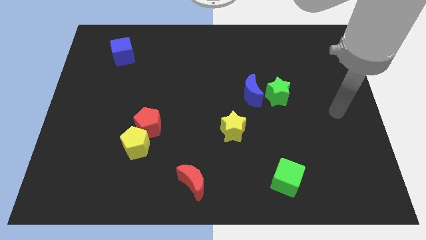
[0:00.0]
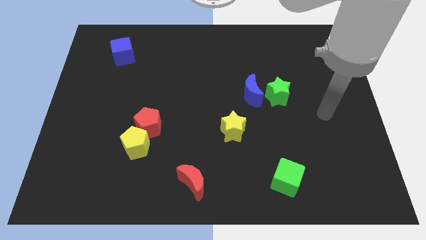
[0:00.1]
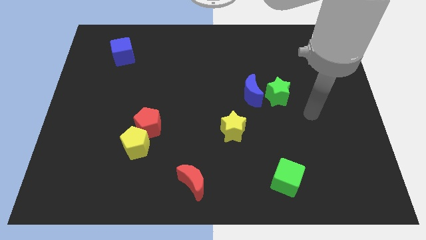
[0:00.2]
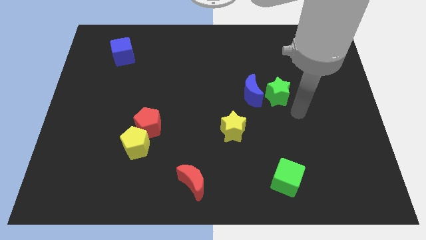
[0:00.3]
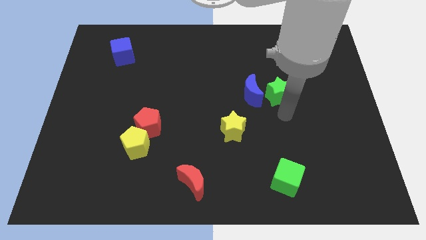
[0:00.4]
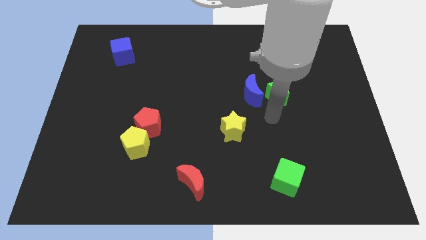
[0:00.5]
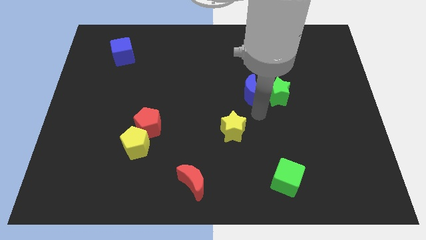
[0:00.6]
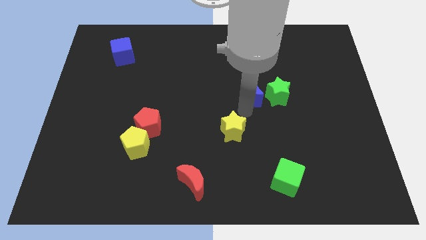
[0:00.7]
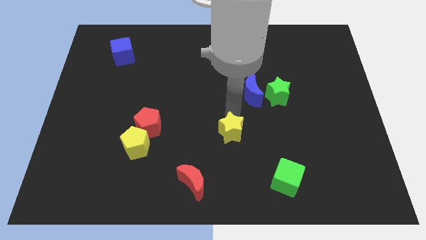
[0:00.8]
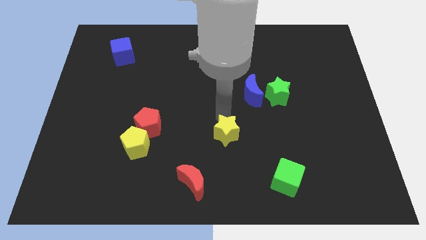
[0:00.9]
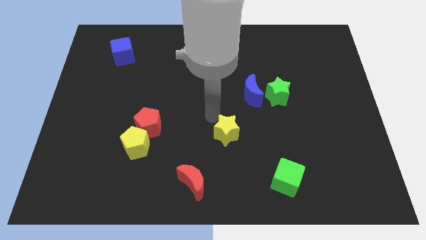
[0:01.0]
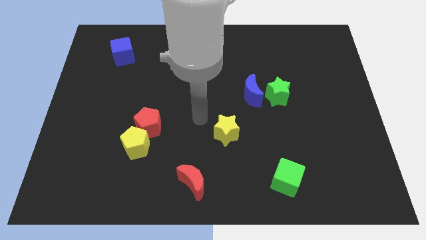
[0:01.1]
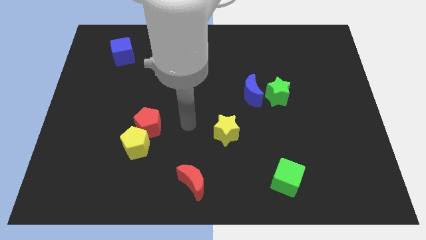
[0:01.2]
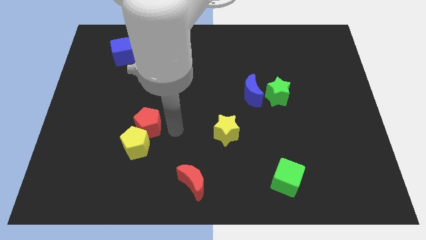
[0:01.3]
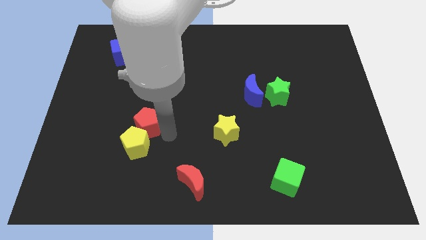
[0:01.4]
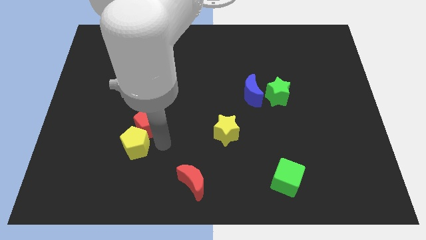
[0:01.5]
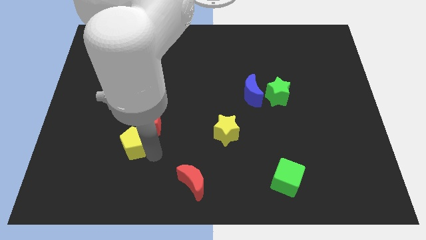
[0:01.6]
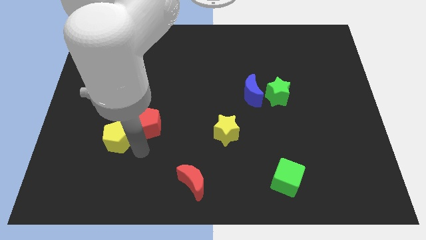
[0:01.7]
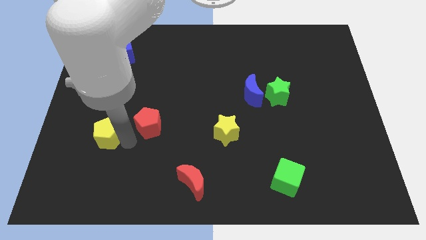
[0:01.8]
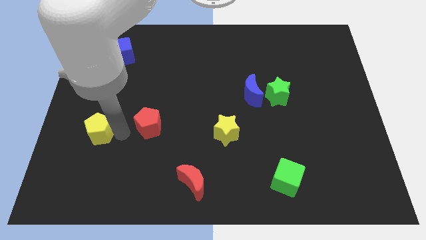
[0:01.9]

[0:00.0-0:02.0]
pull the red pentagon apart from the yellow pentagon

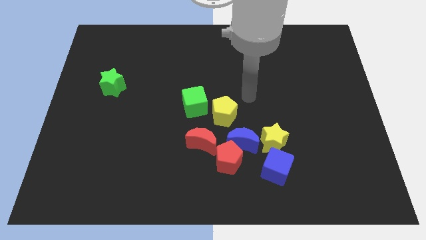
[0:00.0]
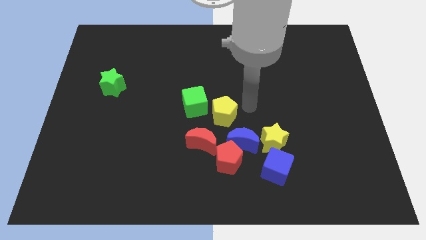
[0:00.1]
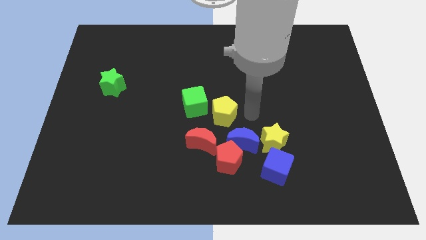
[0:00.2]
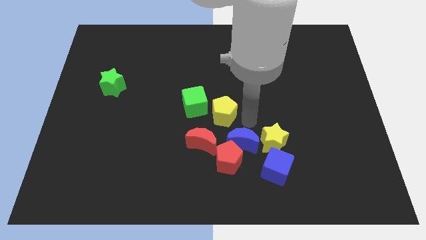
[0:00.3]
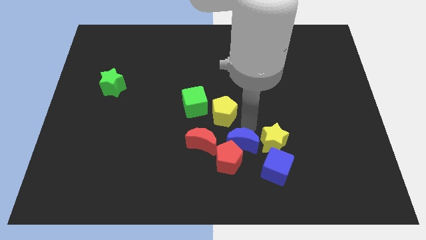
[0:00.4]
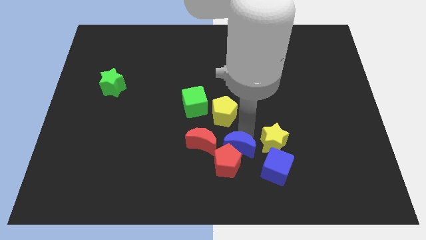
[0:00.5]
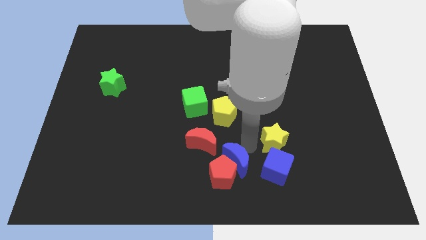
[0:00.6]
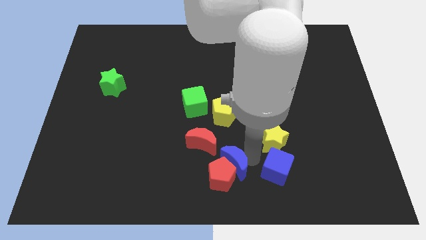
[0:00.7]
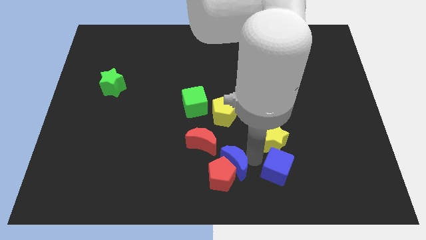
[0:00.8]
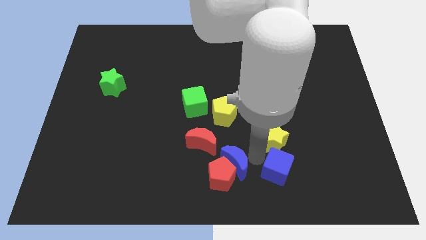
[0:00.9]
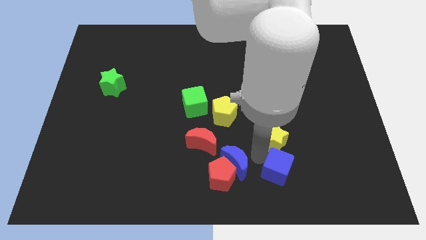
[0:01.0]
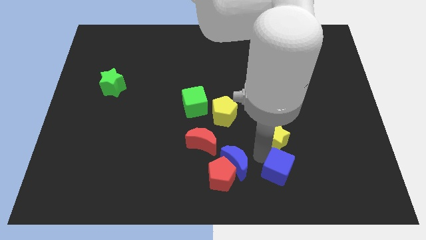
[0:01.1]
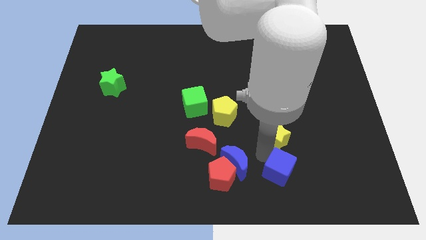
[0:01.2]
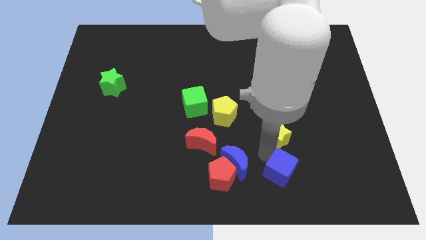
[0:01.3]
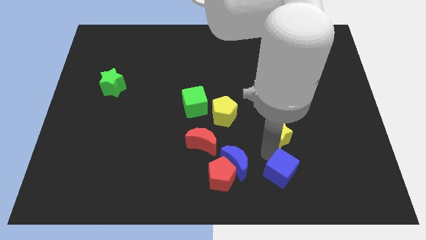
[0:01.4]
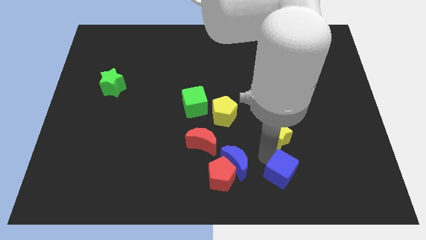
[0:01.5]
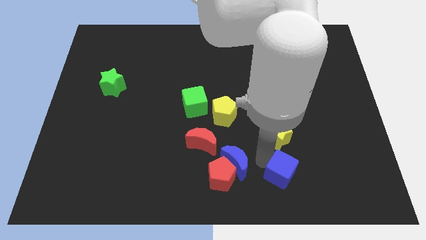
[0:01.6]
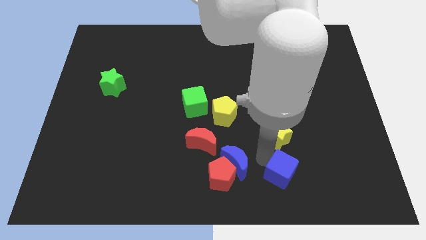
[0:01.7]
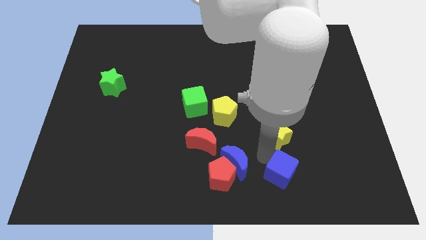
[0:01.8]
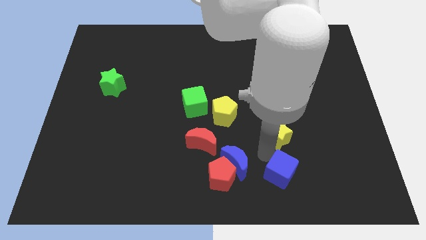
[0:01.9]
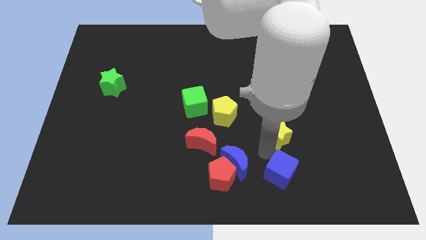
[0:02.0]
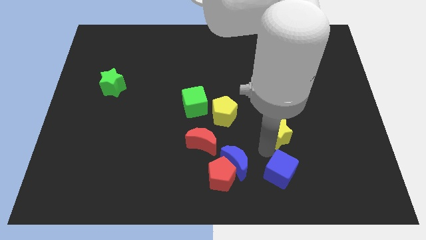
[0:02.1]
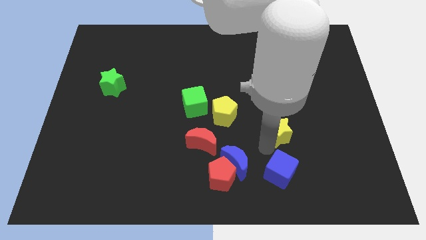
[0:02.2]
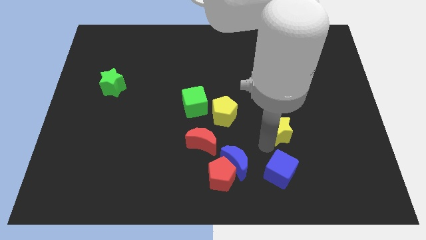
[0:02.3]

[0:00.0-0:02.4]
separate the yellow star from the blue cube and blue moon

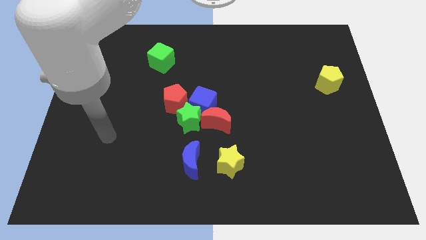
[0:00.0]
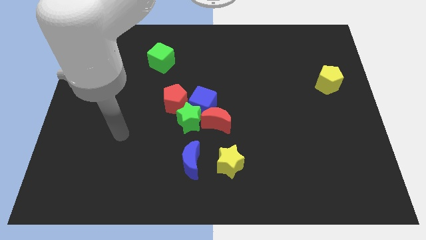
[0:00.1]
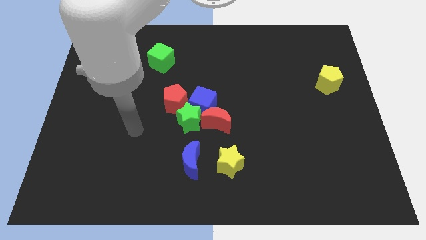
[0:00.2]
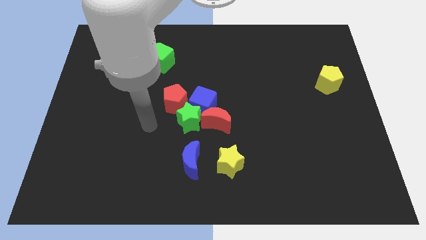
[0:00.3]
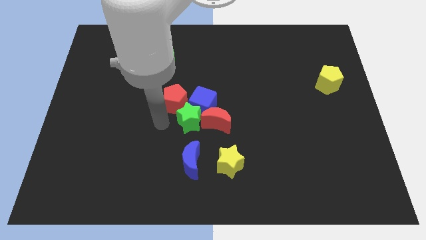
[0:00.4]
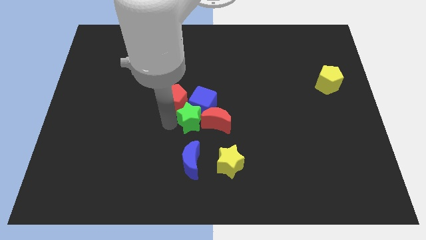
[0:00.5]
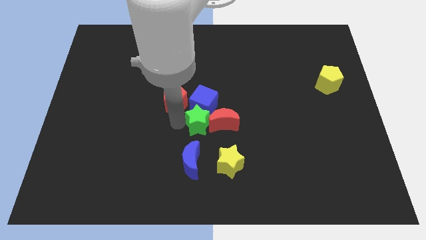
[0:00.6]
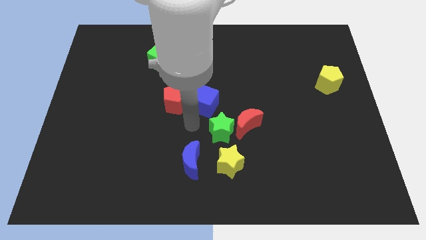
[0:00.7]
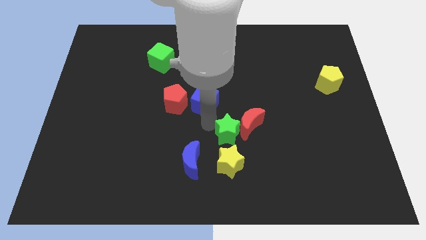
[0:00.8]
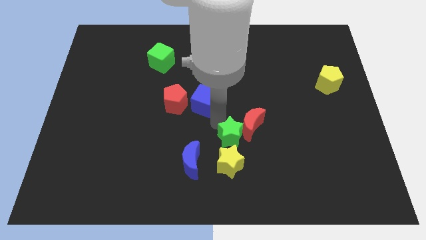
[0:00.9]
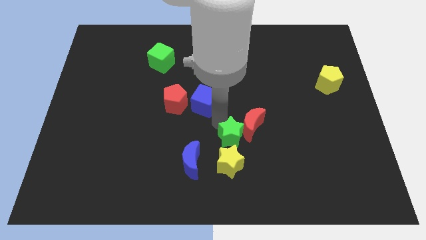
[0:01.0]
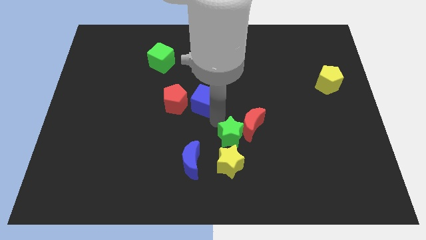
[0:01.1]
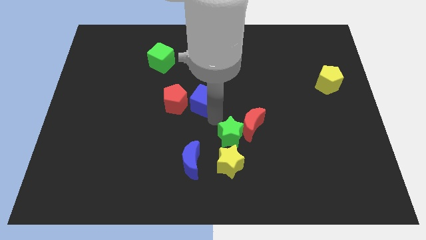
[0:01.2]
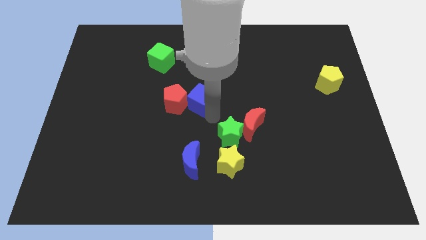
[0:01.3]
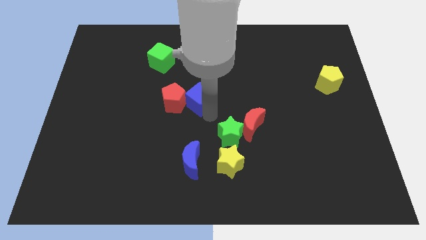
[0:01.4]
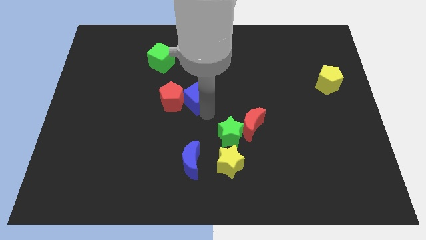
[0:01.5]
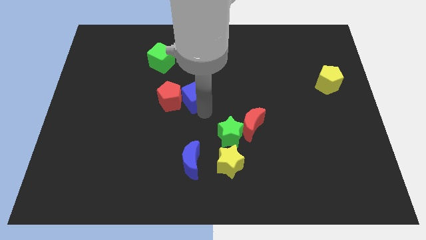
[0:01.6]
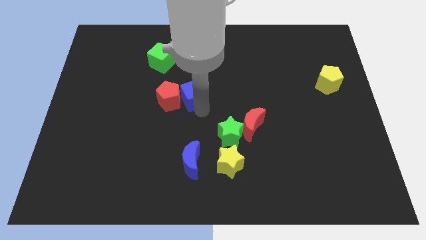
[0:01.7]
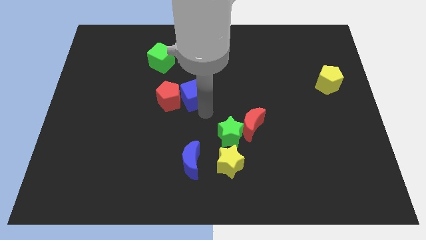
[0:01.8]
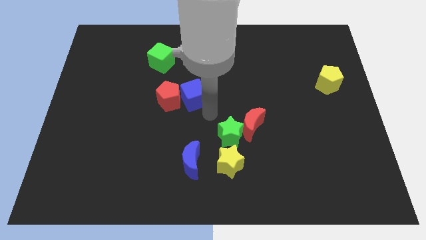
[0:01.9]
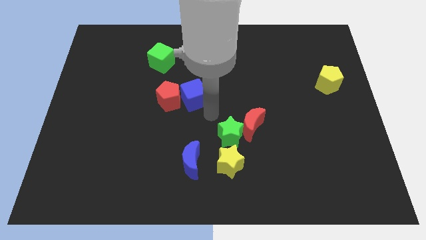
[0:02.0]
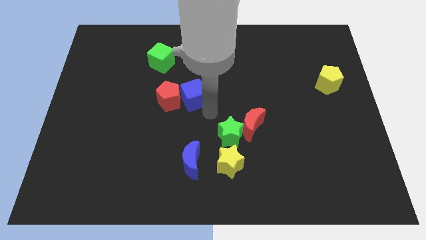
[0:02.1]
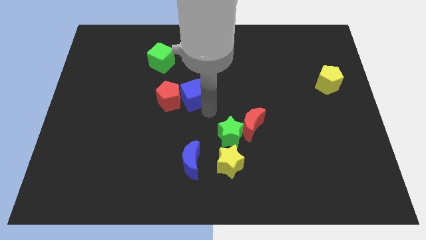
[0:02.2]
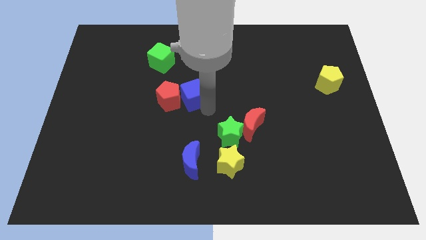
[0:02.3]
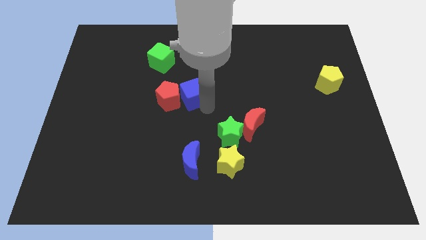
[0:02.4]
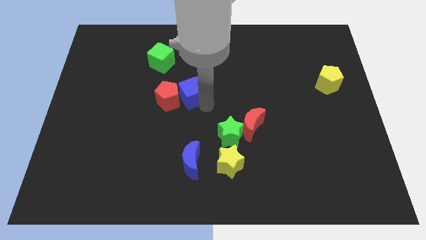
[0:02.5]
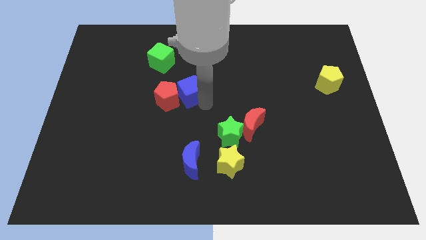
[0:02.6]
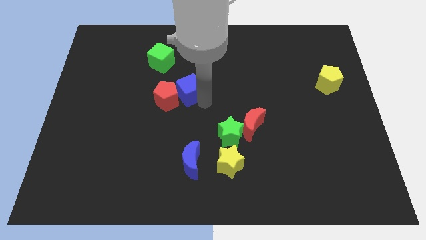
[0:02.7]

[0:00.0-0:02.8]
move the blue cube away from the green star, red moon, and red pentagon

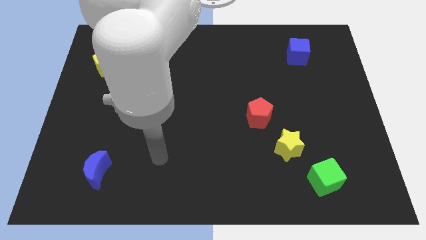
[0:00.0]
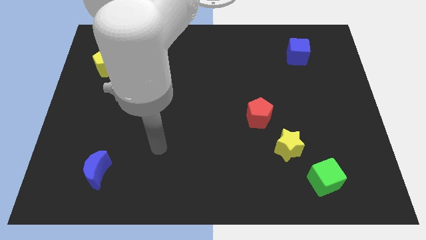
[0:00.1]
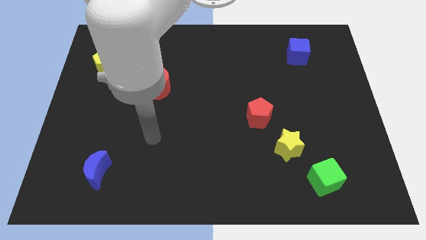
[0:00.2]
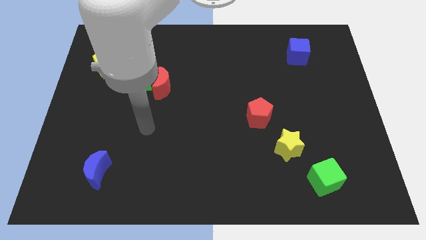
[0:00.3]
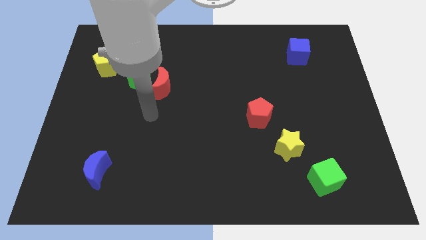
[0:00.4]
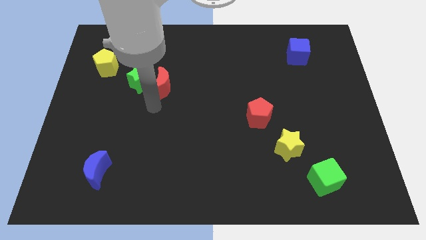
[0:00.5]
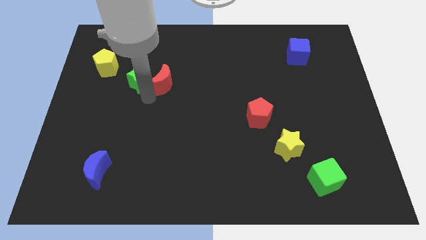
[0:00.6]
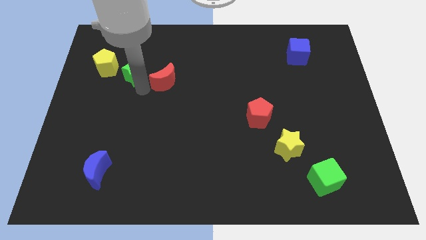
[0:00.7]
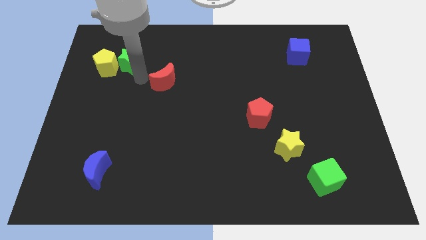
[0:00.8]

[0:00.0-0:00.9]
pull the red moon apart from the green star

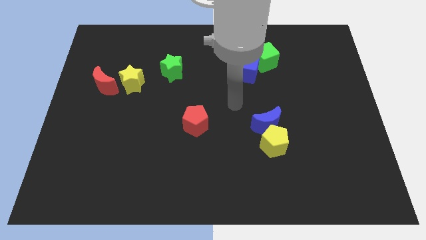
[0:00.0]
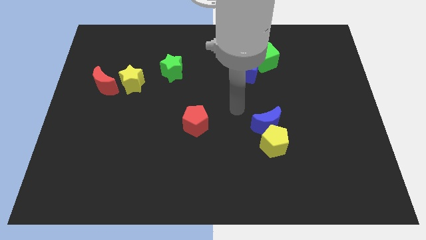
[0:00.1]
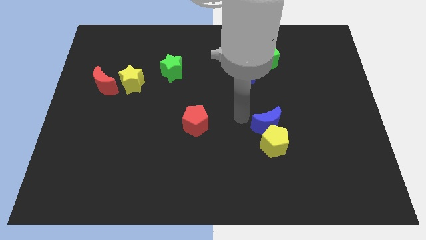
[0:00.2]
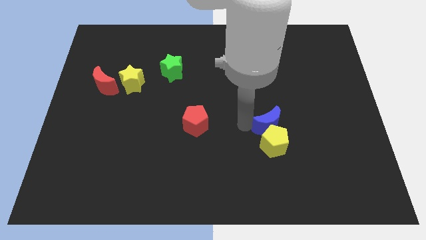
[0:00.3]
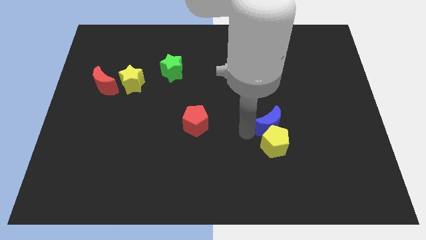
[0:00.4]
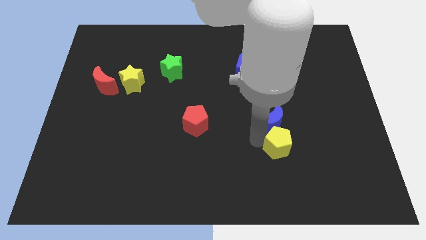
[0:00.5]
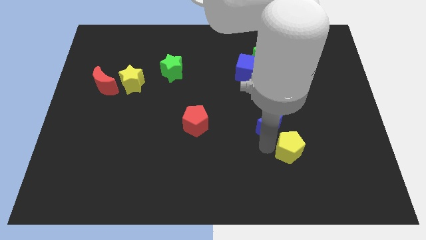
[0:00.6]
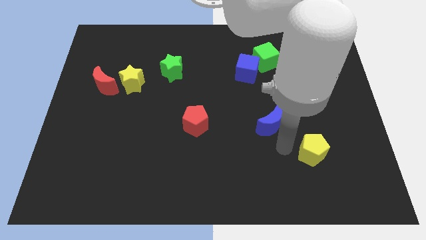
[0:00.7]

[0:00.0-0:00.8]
separate the blue moon from the yellow pentagon
